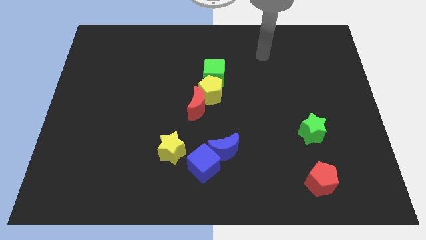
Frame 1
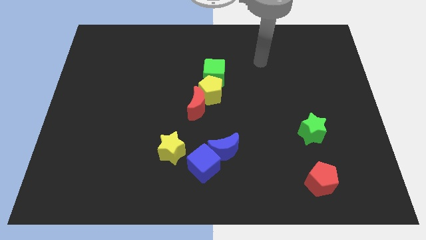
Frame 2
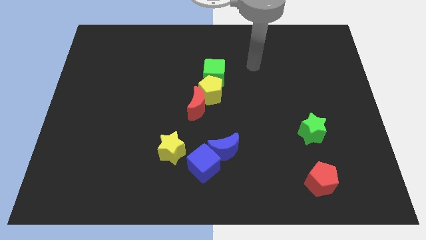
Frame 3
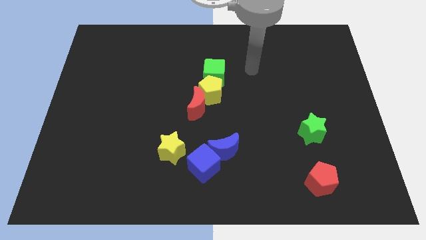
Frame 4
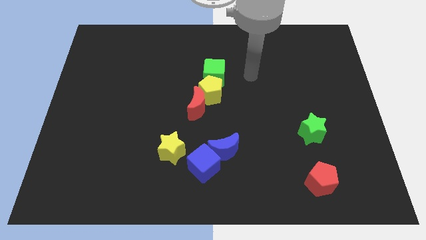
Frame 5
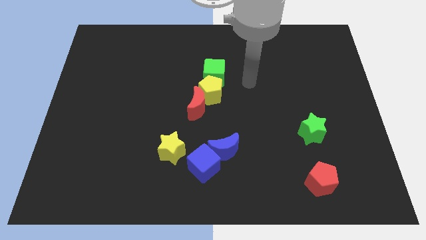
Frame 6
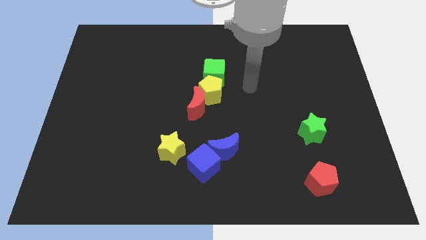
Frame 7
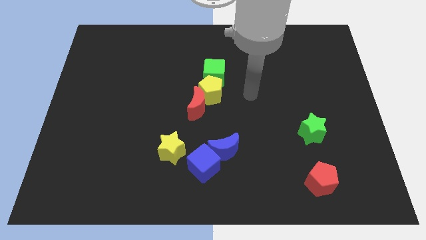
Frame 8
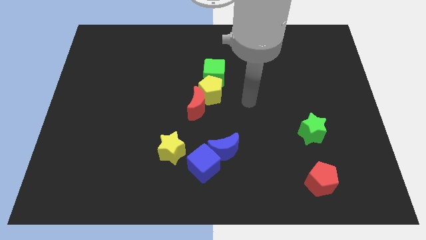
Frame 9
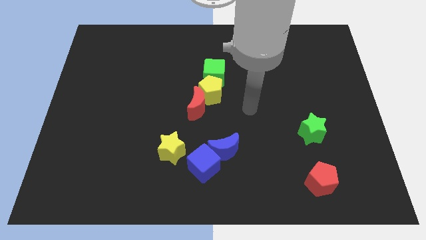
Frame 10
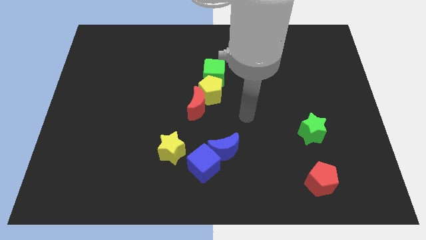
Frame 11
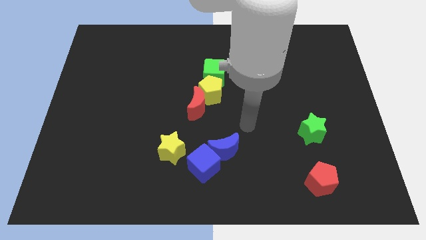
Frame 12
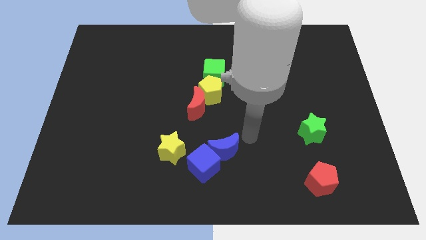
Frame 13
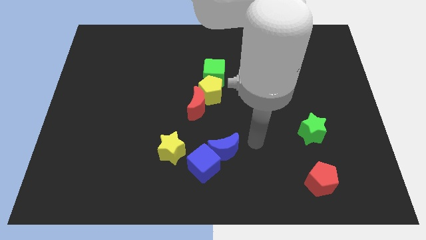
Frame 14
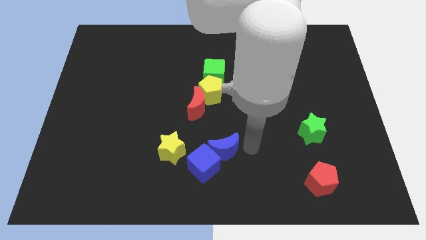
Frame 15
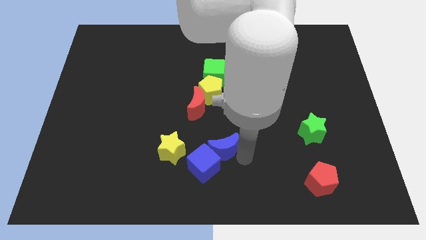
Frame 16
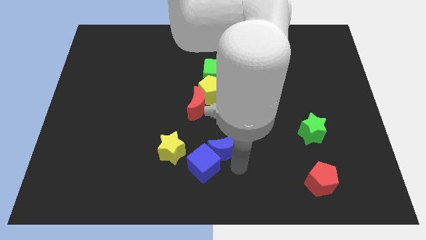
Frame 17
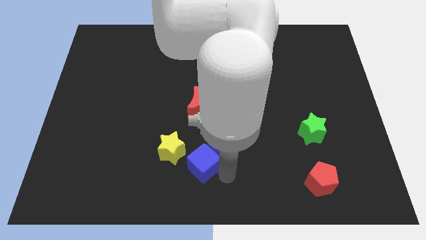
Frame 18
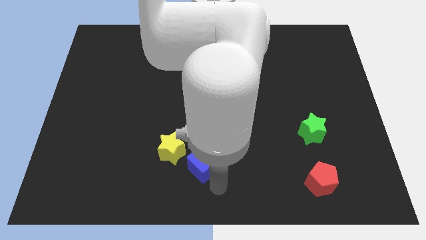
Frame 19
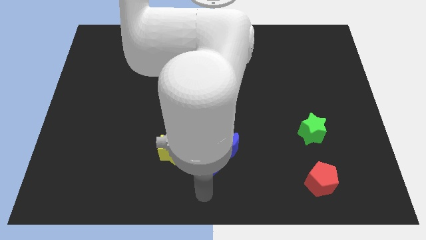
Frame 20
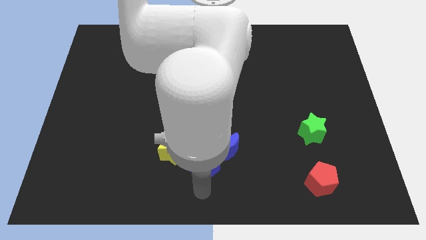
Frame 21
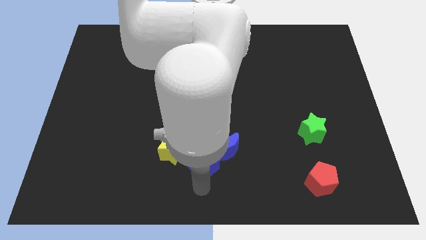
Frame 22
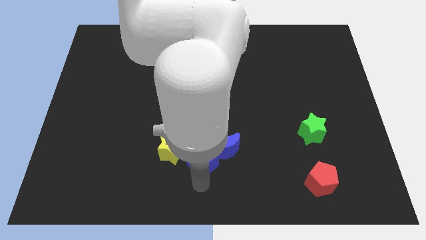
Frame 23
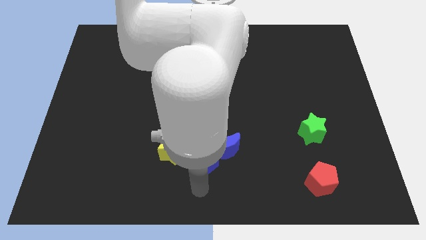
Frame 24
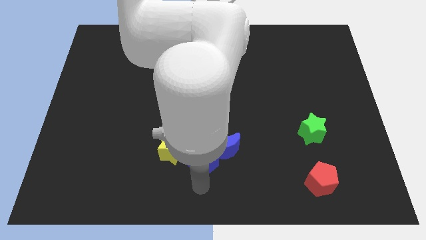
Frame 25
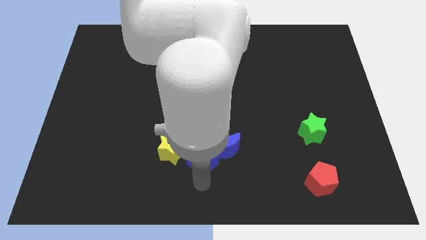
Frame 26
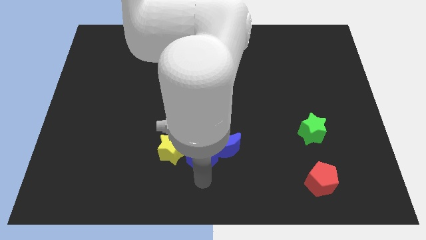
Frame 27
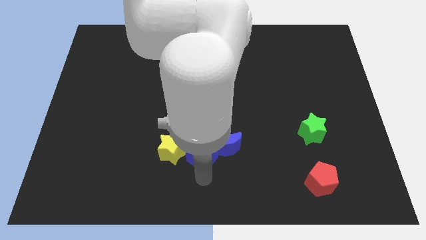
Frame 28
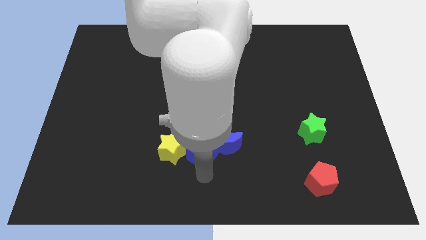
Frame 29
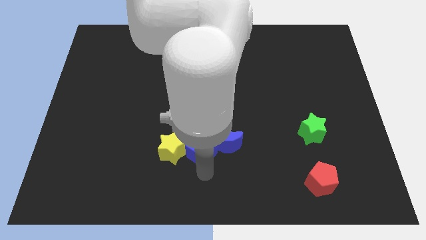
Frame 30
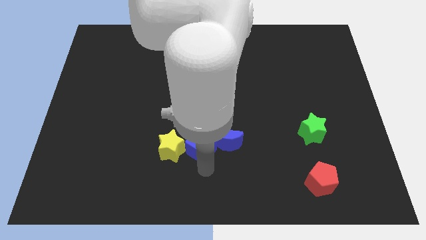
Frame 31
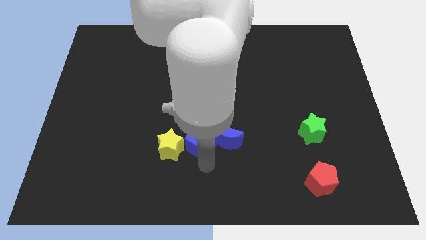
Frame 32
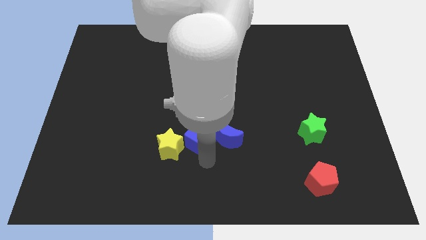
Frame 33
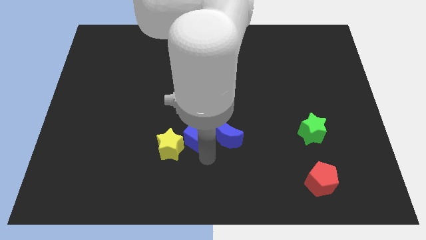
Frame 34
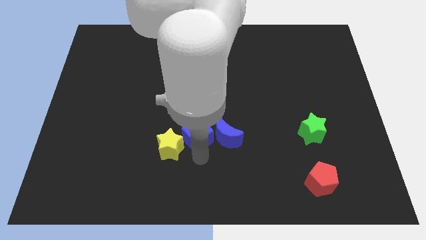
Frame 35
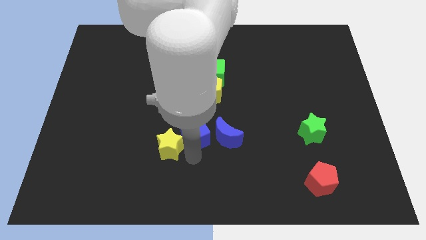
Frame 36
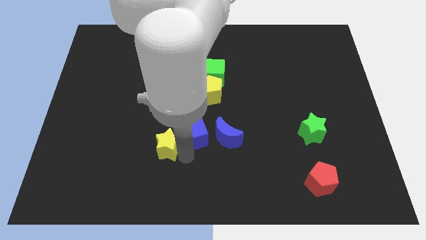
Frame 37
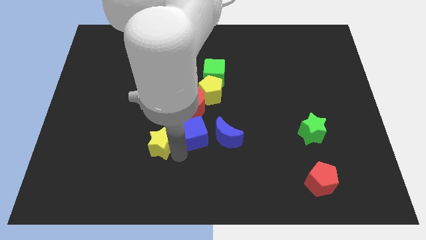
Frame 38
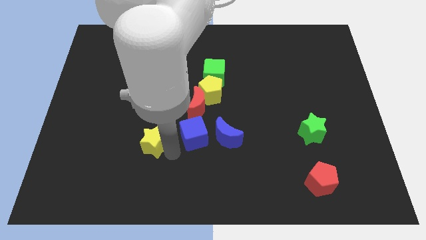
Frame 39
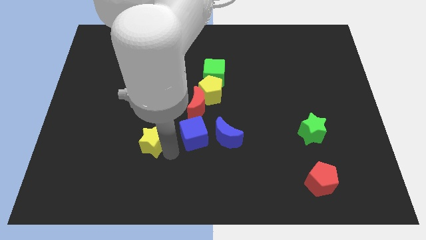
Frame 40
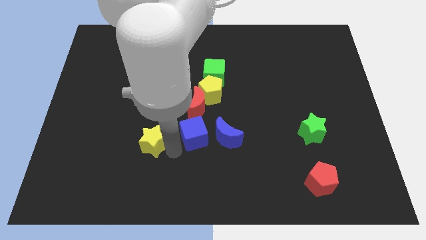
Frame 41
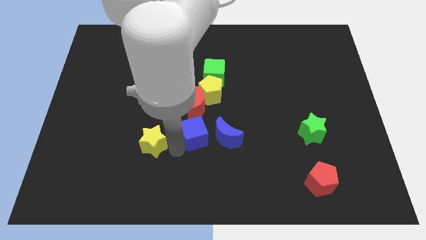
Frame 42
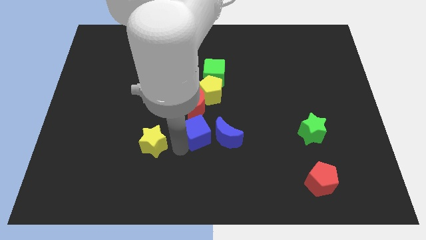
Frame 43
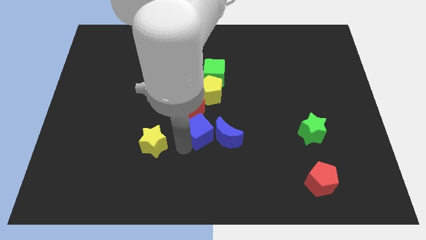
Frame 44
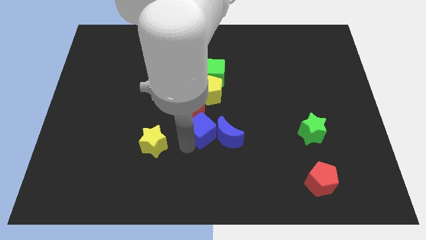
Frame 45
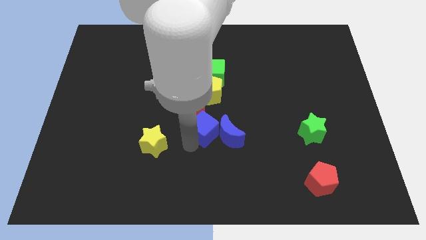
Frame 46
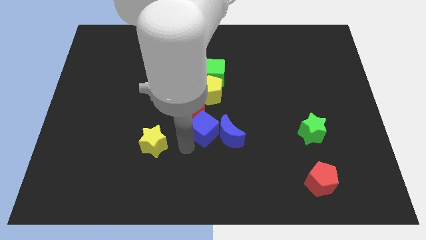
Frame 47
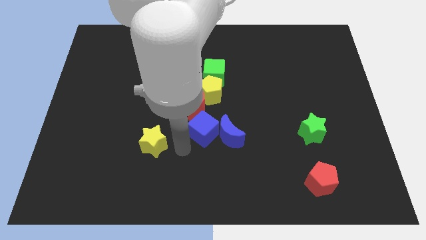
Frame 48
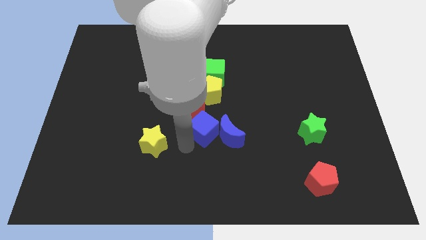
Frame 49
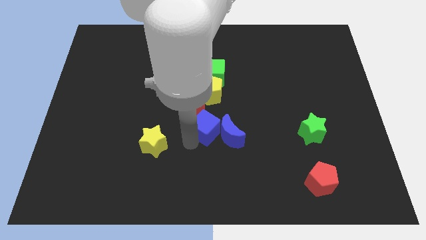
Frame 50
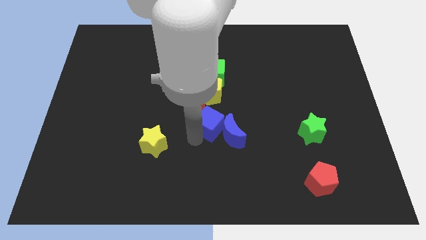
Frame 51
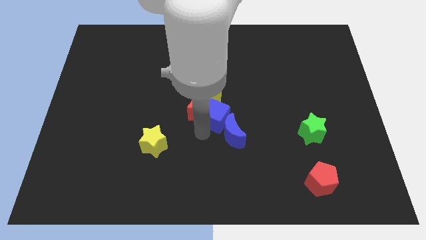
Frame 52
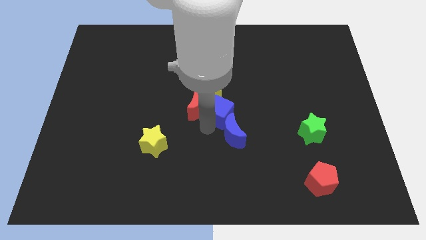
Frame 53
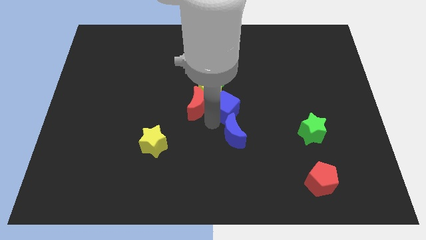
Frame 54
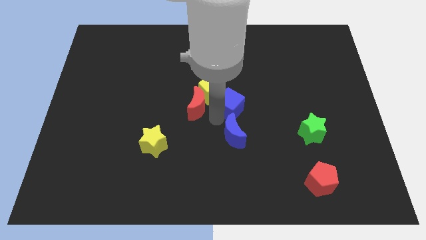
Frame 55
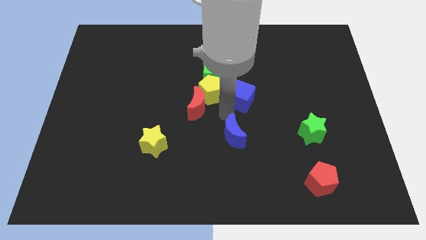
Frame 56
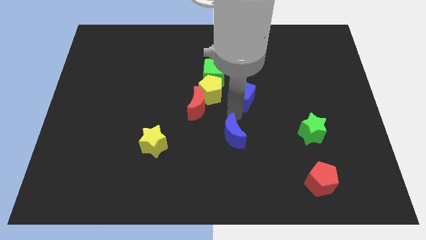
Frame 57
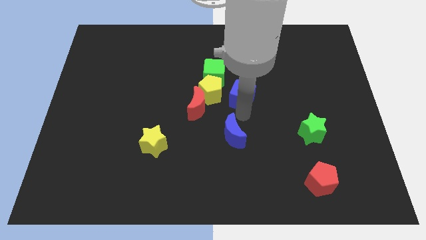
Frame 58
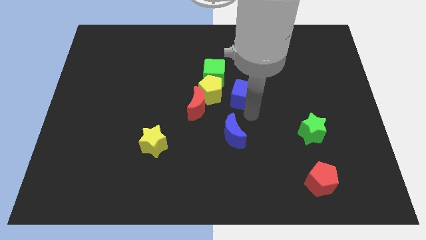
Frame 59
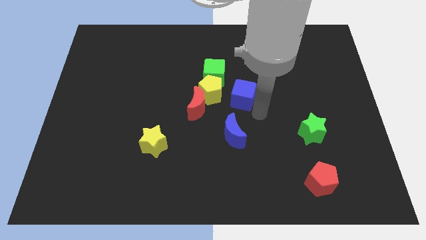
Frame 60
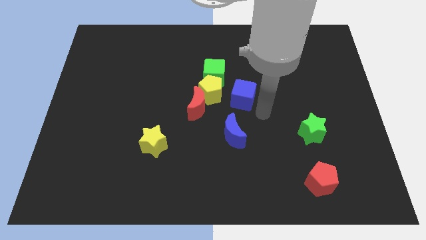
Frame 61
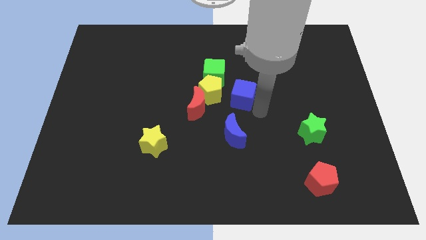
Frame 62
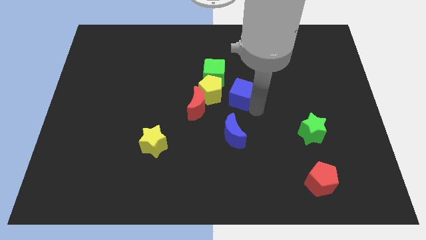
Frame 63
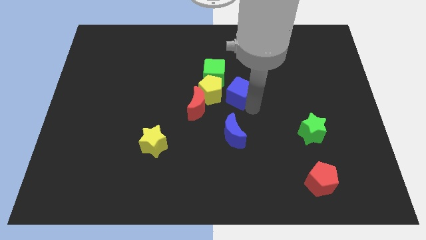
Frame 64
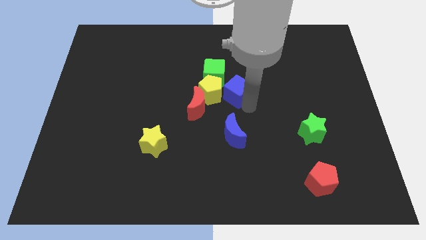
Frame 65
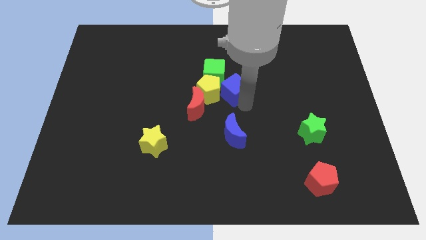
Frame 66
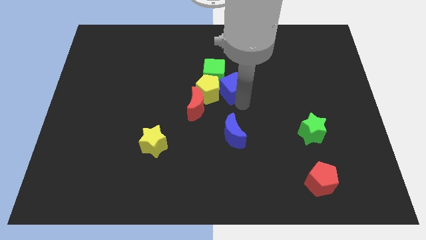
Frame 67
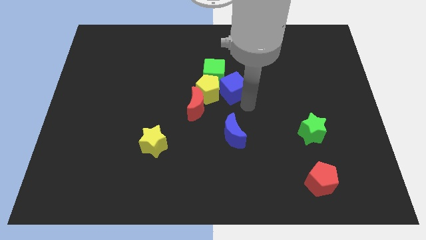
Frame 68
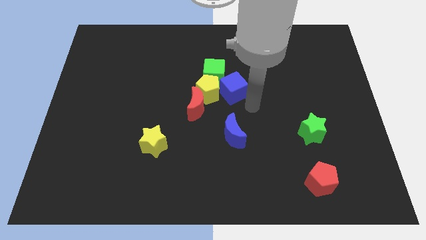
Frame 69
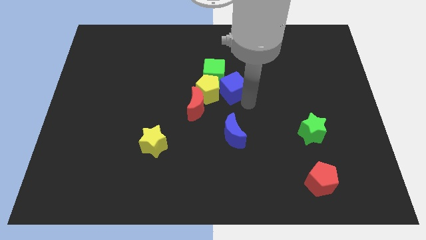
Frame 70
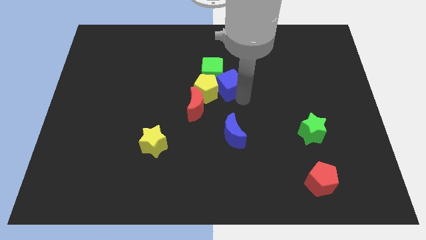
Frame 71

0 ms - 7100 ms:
put the blue cube to the green cube

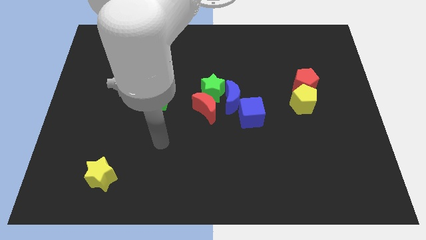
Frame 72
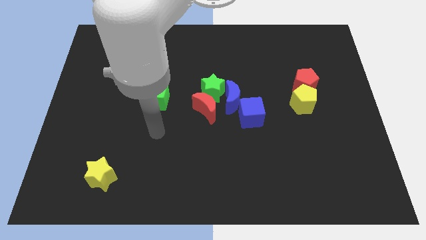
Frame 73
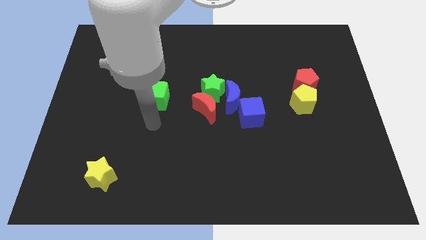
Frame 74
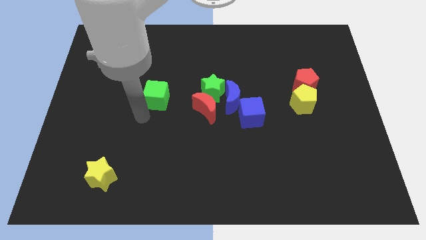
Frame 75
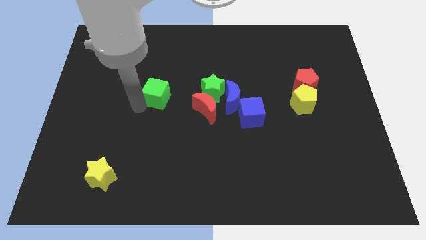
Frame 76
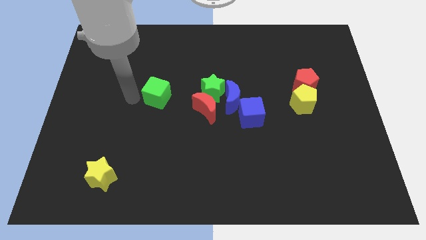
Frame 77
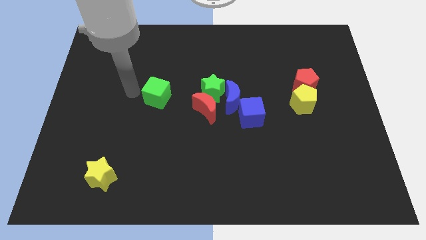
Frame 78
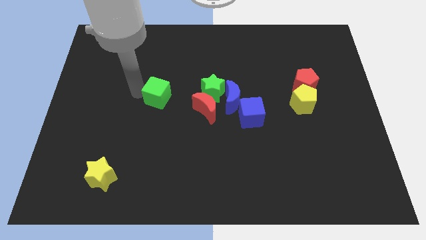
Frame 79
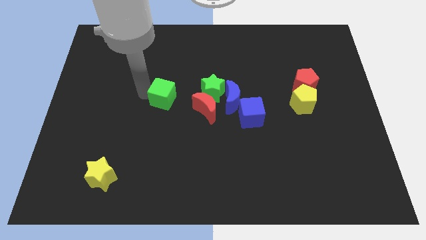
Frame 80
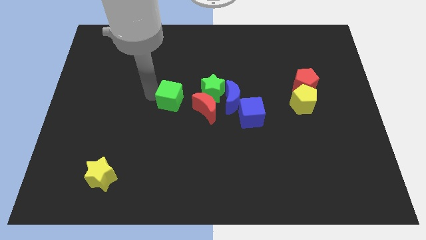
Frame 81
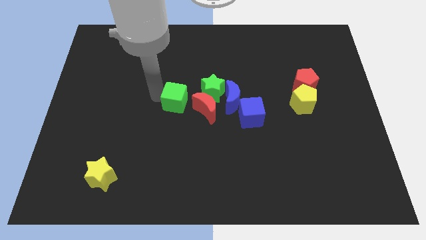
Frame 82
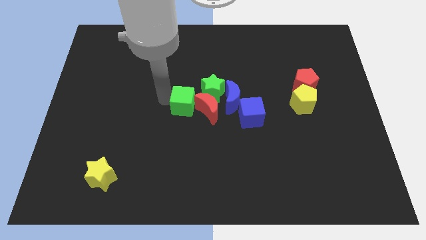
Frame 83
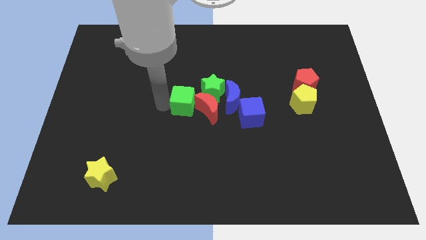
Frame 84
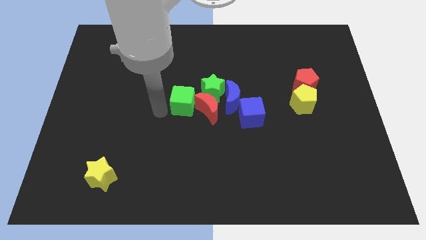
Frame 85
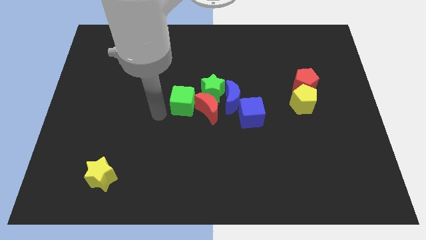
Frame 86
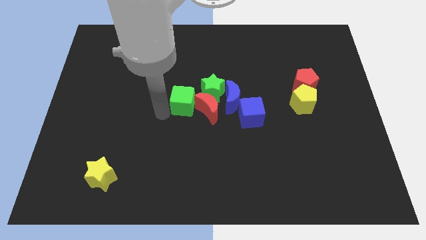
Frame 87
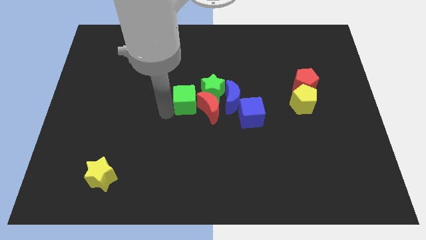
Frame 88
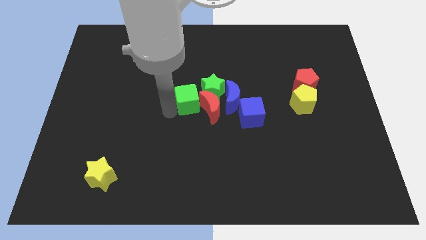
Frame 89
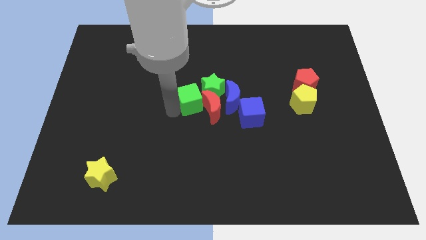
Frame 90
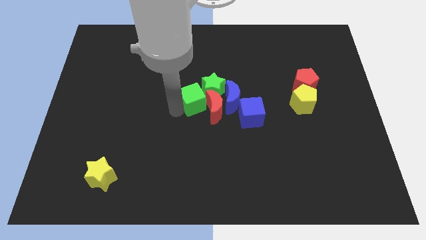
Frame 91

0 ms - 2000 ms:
move the green cube to the green star
